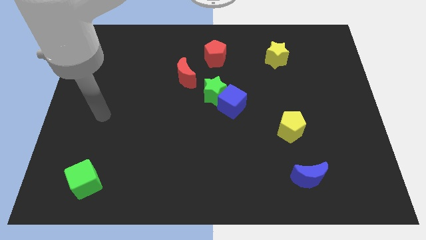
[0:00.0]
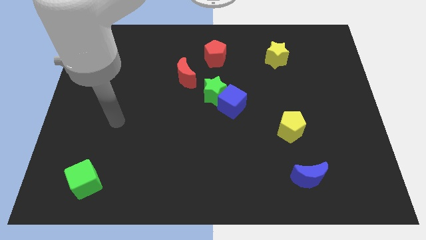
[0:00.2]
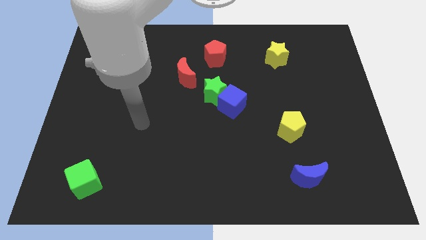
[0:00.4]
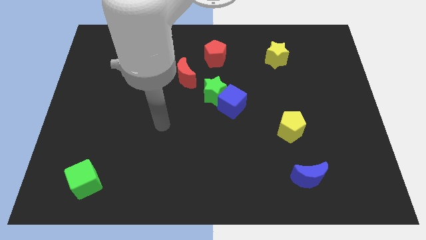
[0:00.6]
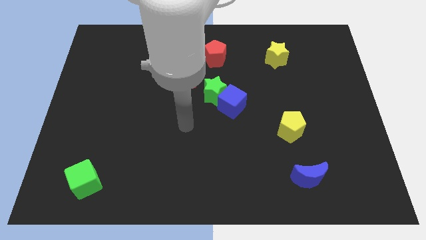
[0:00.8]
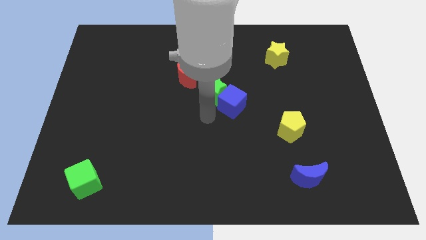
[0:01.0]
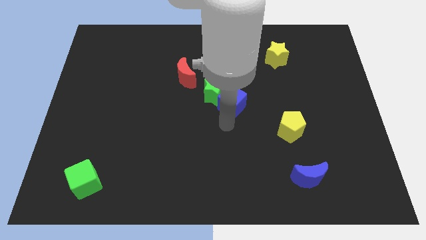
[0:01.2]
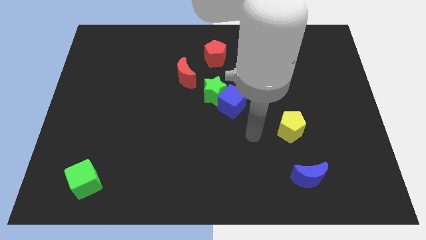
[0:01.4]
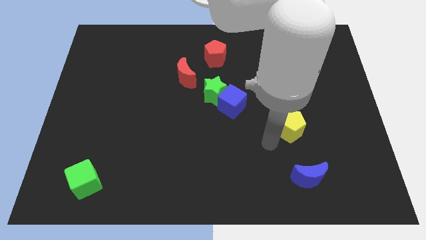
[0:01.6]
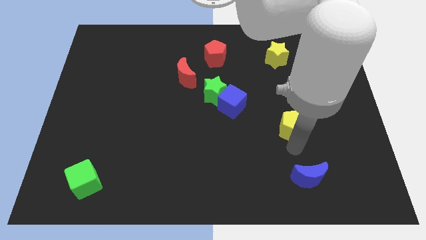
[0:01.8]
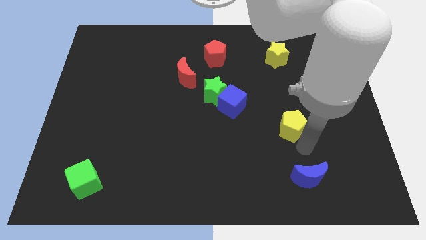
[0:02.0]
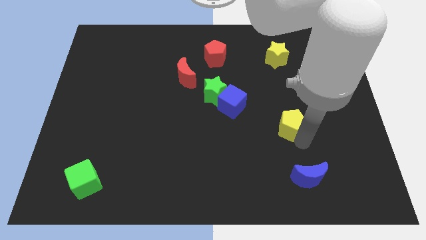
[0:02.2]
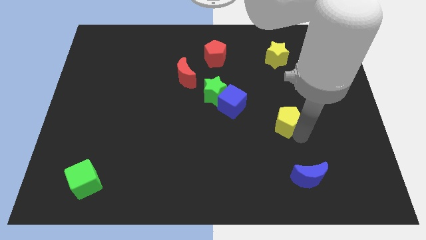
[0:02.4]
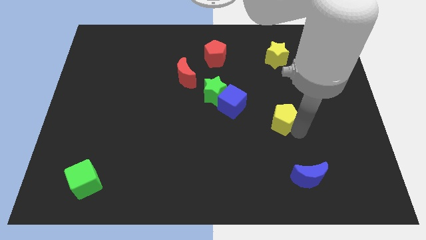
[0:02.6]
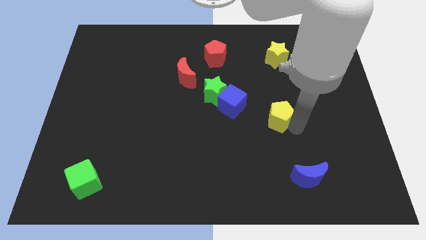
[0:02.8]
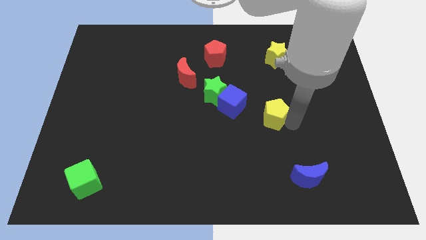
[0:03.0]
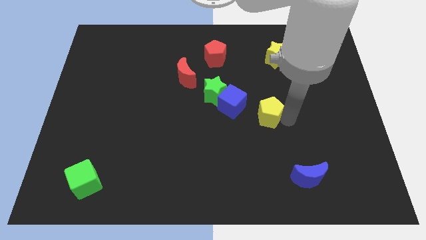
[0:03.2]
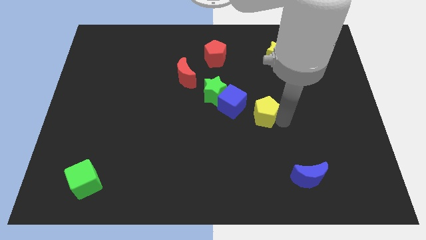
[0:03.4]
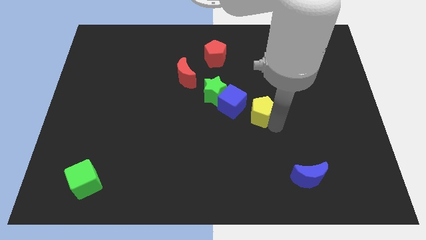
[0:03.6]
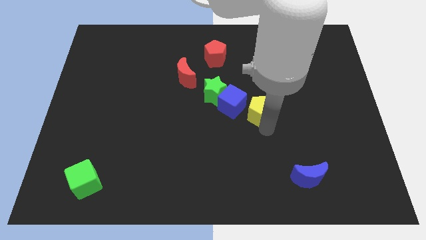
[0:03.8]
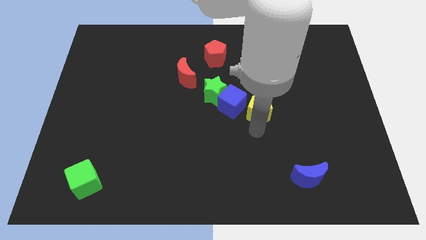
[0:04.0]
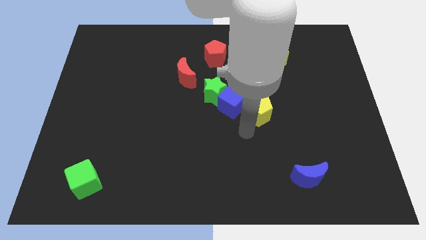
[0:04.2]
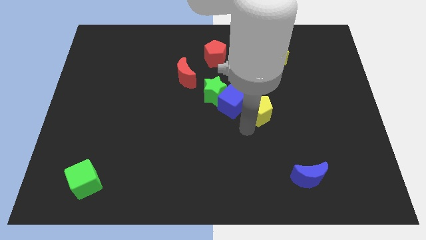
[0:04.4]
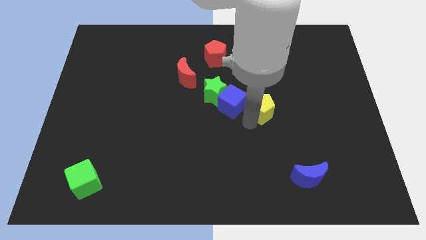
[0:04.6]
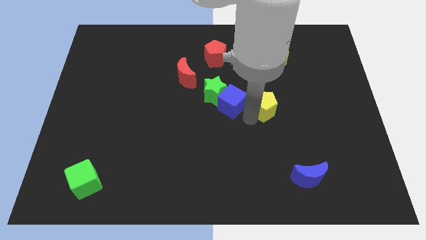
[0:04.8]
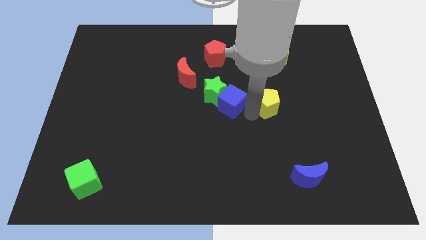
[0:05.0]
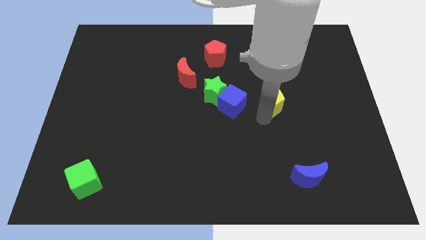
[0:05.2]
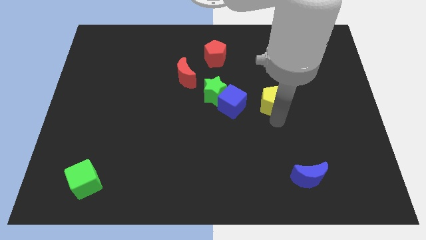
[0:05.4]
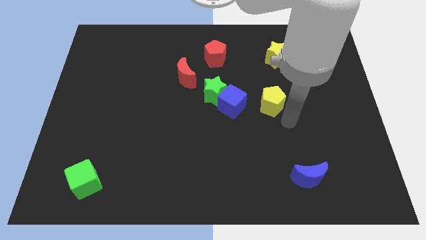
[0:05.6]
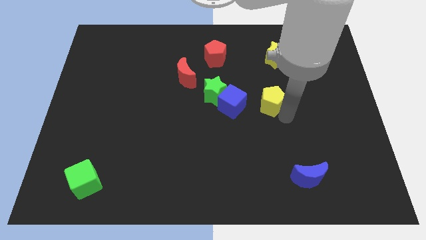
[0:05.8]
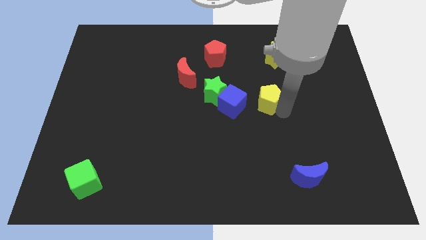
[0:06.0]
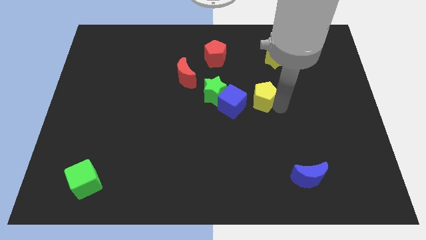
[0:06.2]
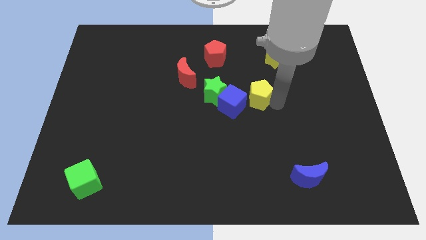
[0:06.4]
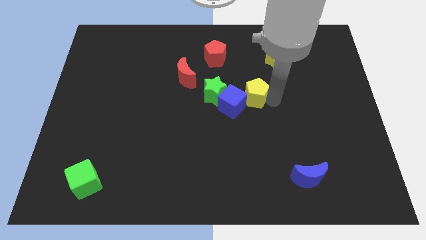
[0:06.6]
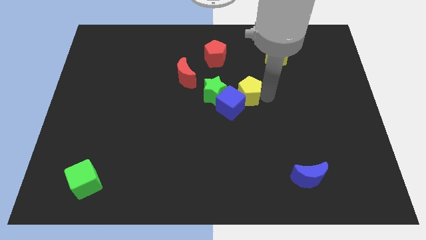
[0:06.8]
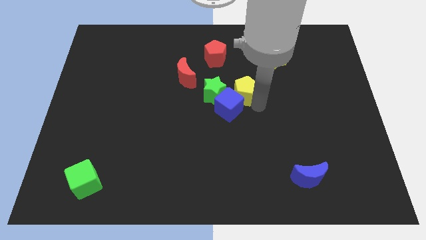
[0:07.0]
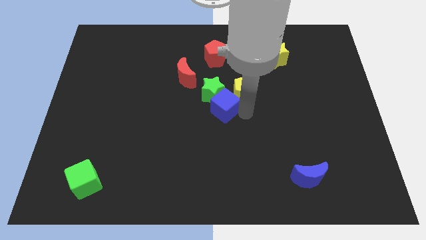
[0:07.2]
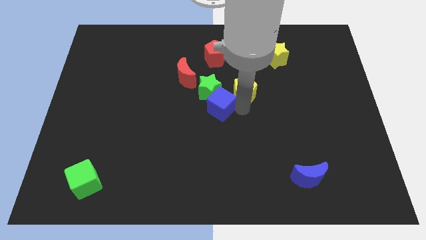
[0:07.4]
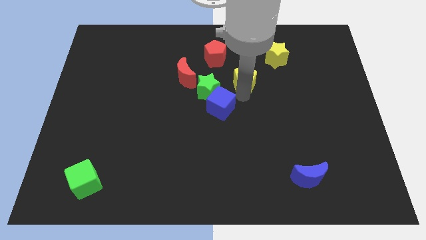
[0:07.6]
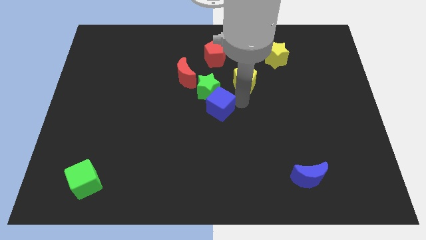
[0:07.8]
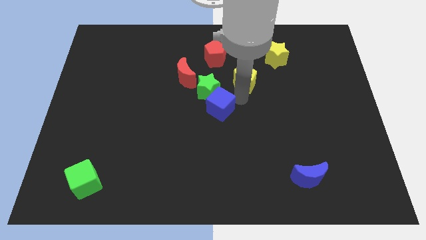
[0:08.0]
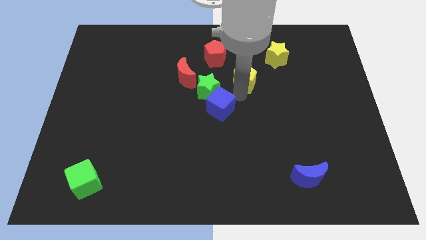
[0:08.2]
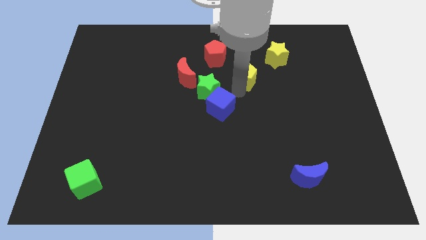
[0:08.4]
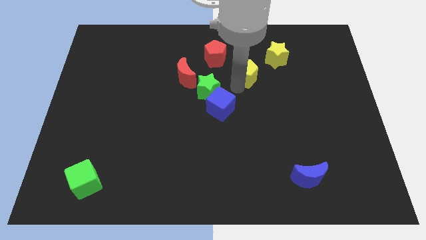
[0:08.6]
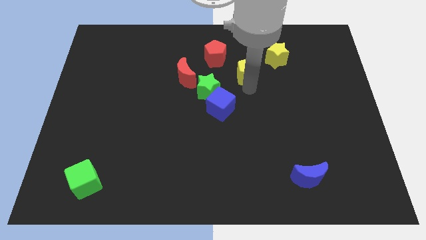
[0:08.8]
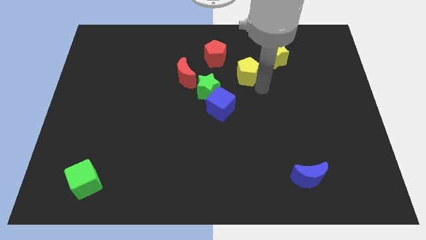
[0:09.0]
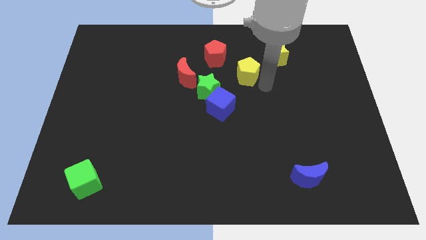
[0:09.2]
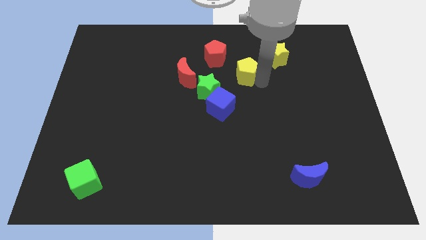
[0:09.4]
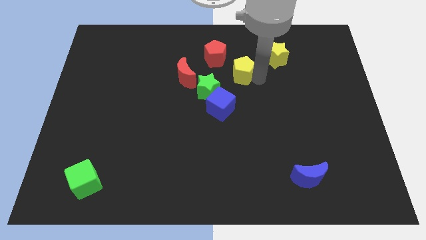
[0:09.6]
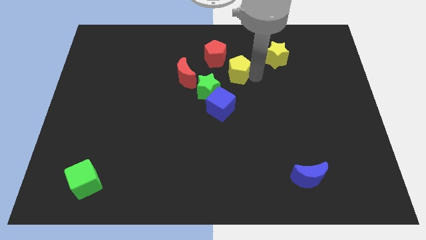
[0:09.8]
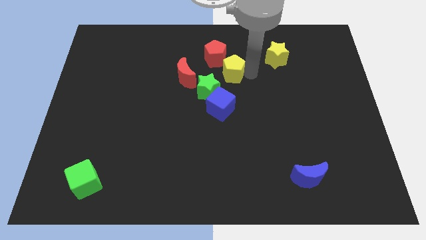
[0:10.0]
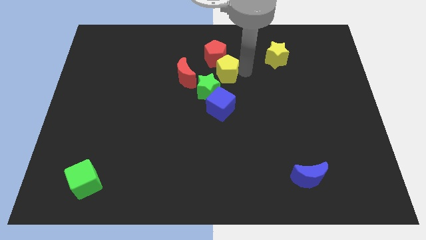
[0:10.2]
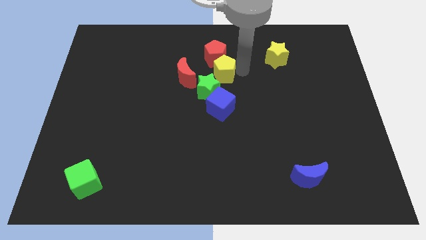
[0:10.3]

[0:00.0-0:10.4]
slide the yellow pentagon to the red pentagon

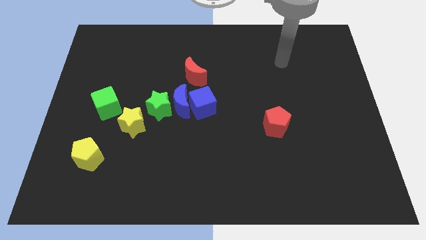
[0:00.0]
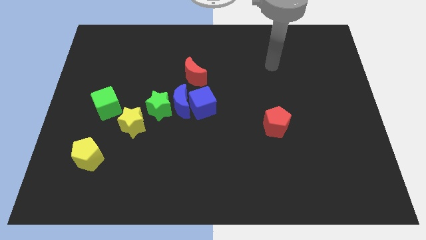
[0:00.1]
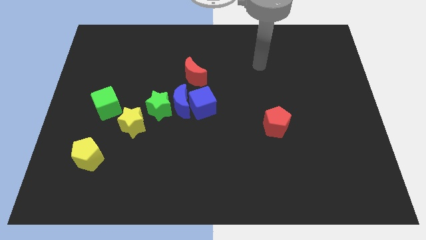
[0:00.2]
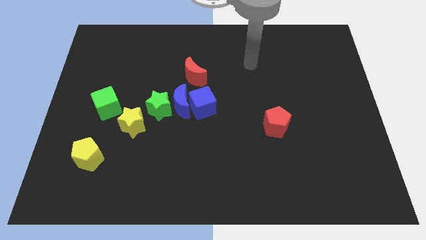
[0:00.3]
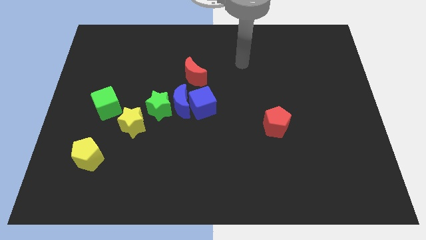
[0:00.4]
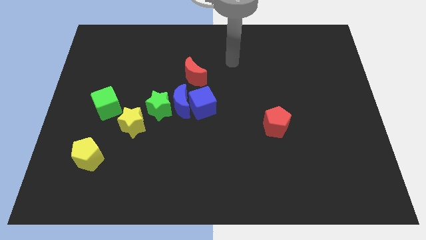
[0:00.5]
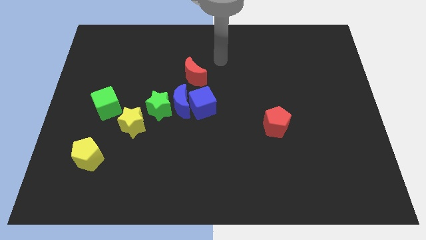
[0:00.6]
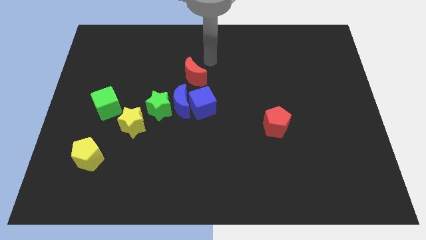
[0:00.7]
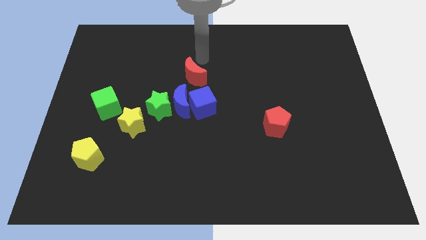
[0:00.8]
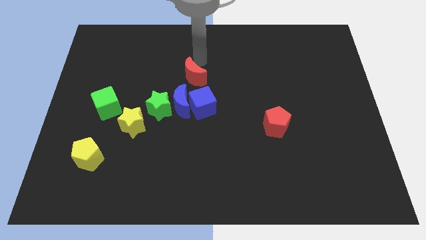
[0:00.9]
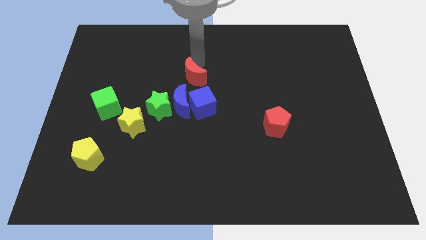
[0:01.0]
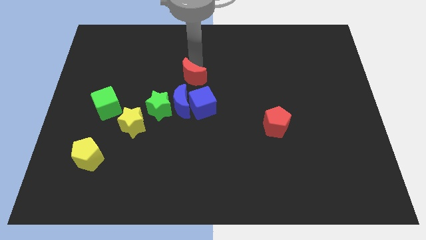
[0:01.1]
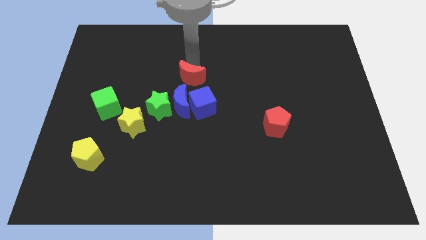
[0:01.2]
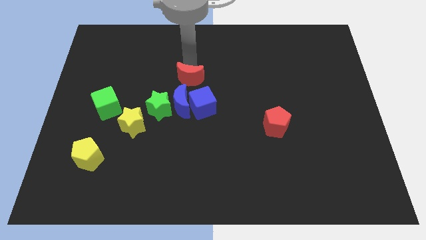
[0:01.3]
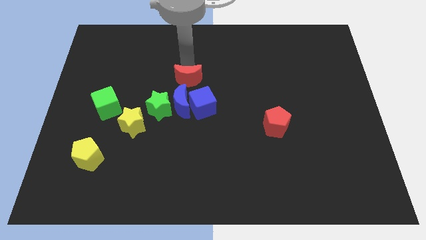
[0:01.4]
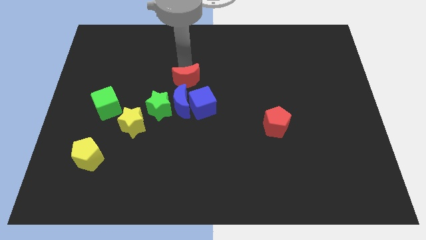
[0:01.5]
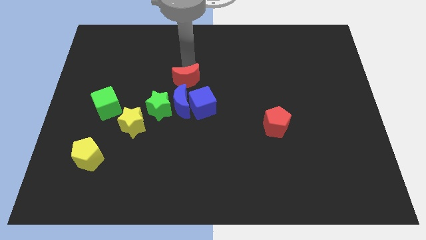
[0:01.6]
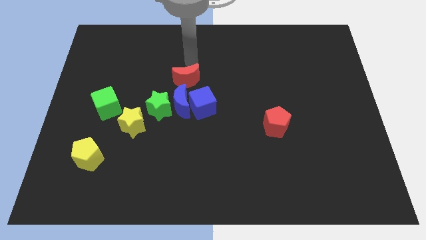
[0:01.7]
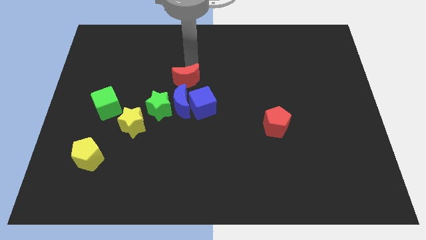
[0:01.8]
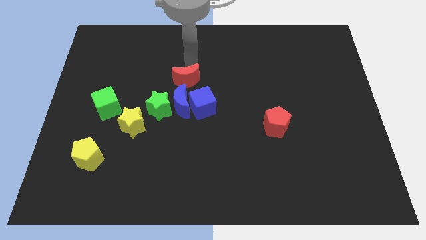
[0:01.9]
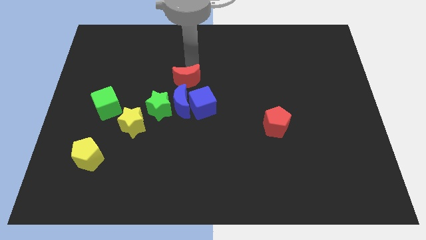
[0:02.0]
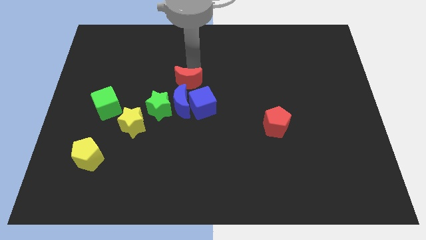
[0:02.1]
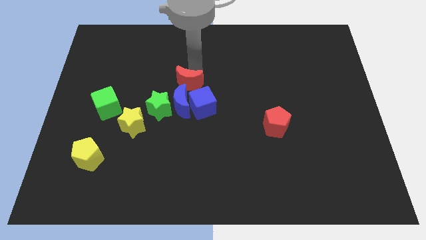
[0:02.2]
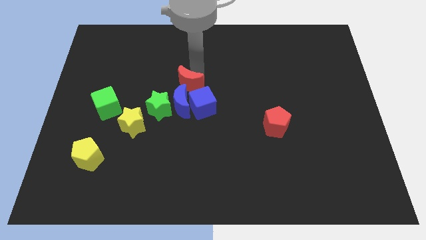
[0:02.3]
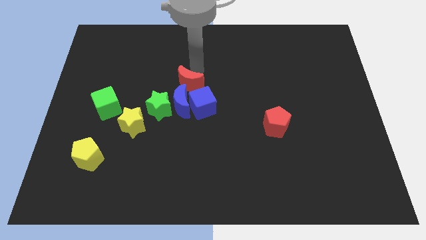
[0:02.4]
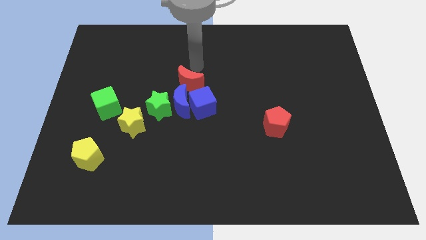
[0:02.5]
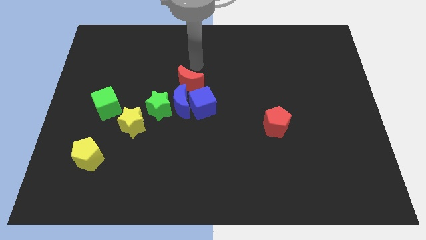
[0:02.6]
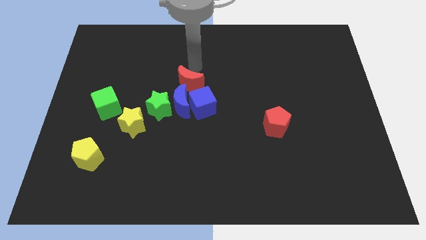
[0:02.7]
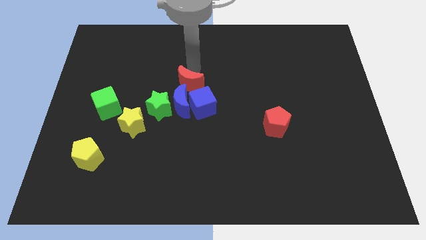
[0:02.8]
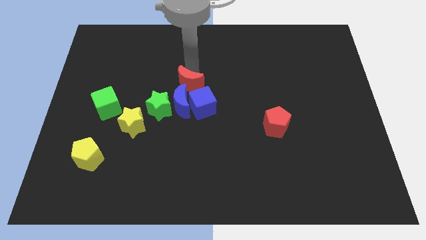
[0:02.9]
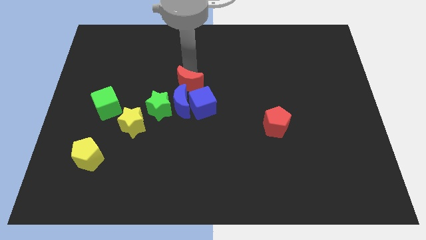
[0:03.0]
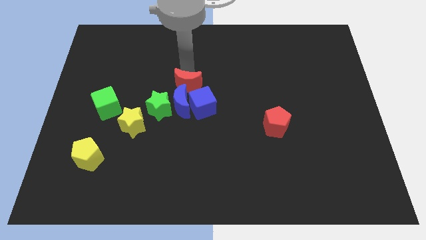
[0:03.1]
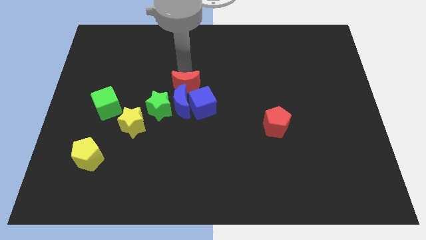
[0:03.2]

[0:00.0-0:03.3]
put the red moon next to the blue moon
